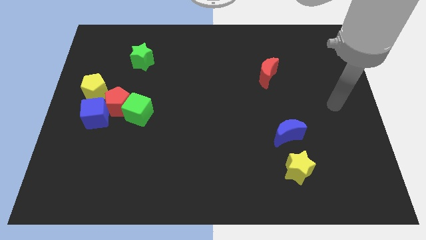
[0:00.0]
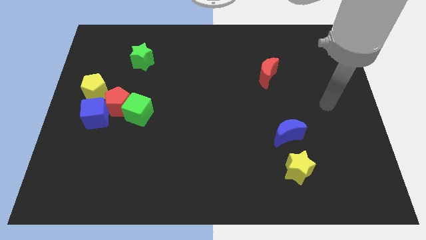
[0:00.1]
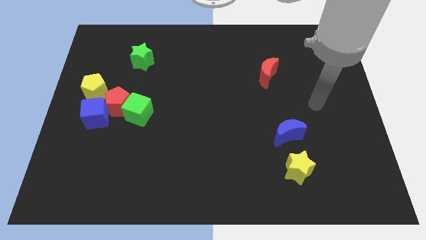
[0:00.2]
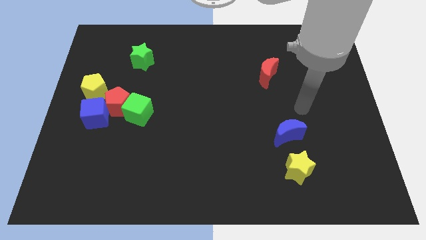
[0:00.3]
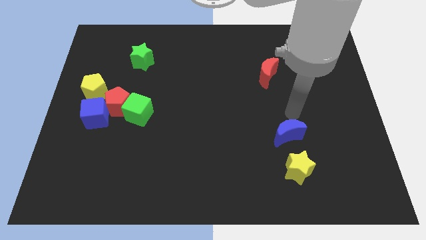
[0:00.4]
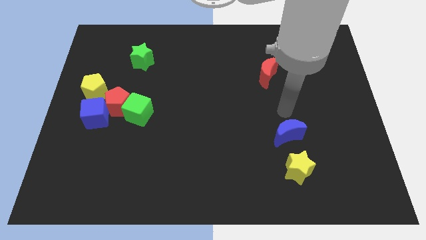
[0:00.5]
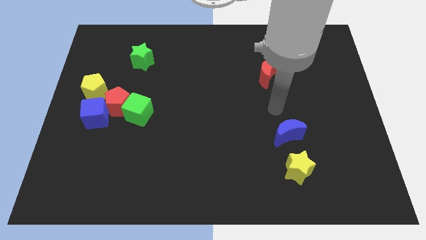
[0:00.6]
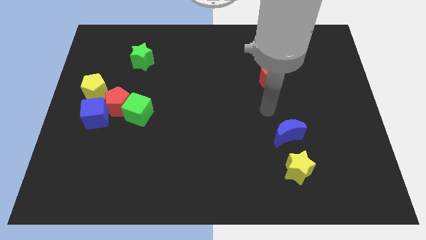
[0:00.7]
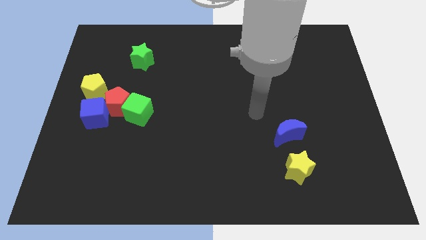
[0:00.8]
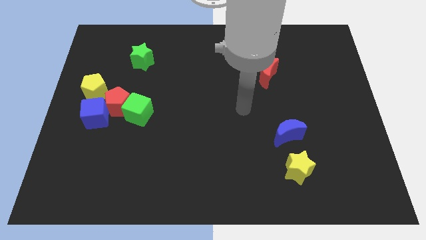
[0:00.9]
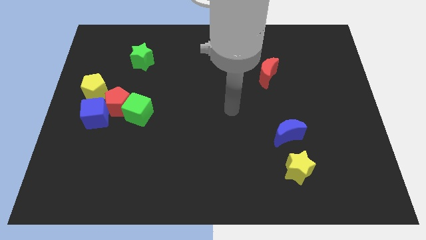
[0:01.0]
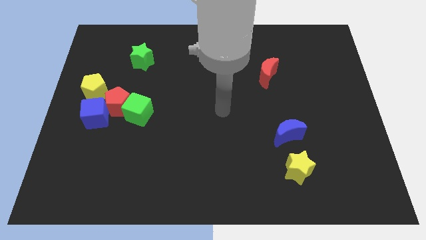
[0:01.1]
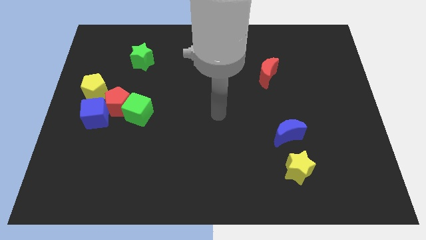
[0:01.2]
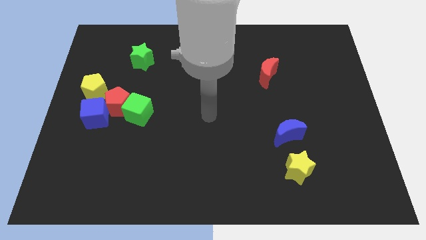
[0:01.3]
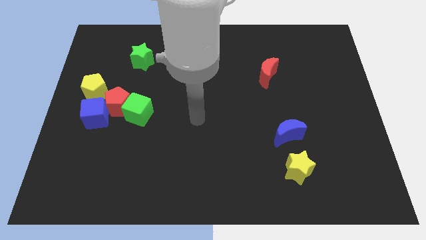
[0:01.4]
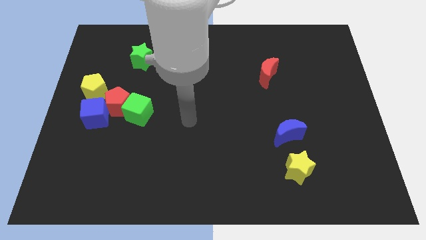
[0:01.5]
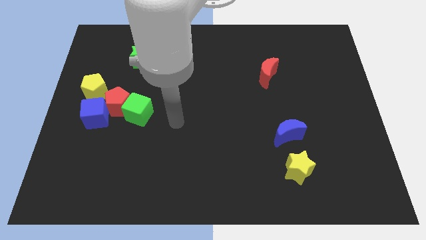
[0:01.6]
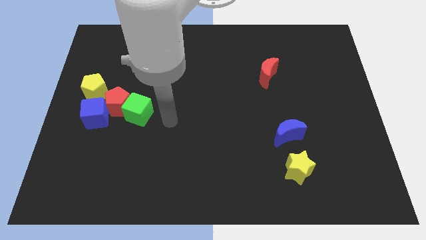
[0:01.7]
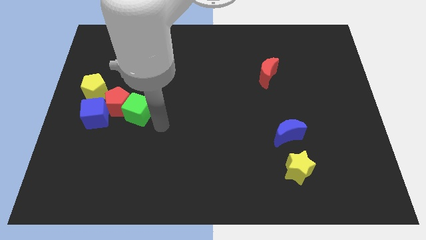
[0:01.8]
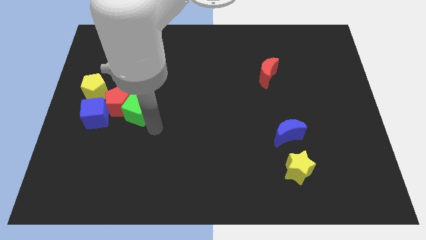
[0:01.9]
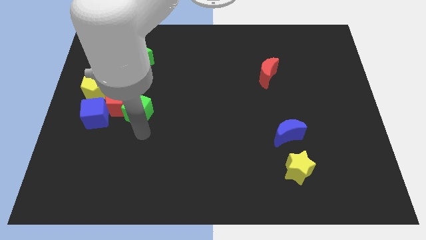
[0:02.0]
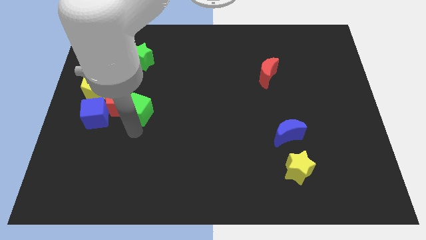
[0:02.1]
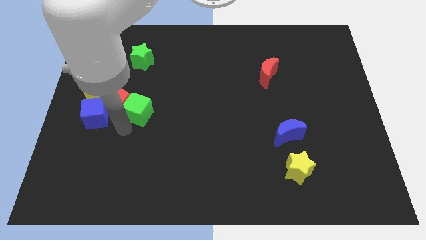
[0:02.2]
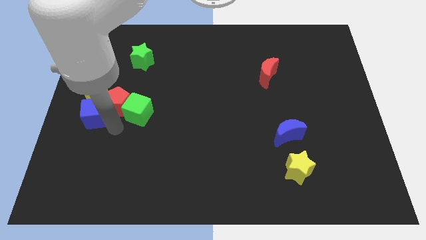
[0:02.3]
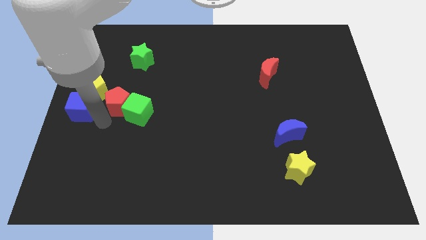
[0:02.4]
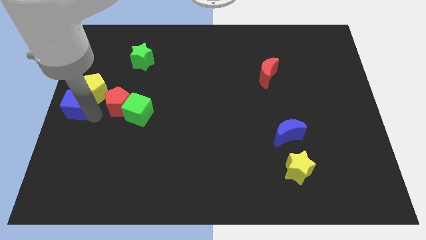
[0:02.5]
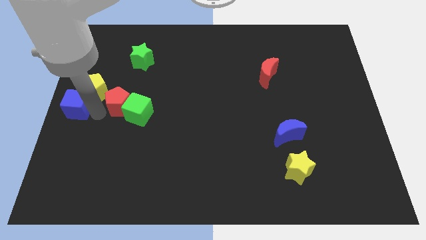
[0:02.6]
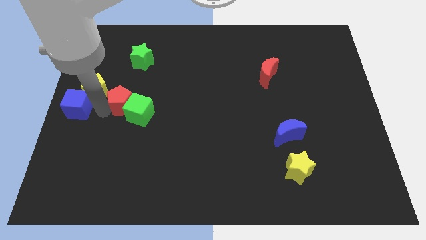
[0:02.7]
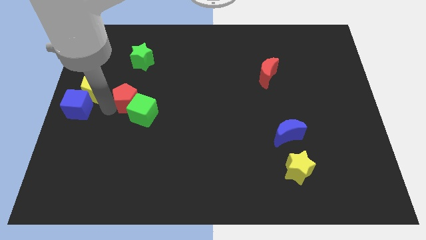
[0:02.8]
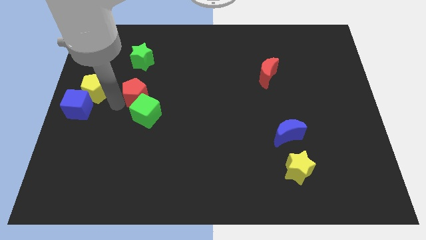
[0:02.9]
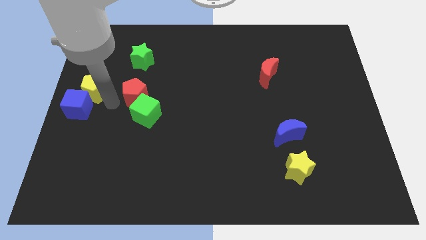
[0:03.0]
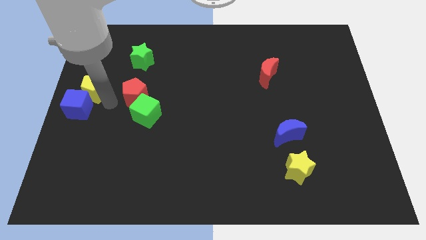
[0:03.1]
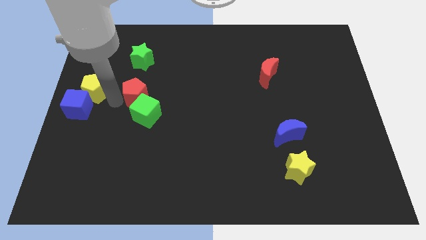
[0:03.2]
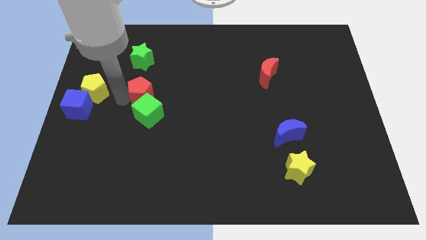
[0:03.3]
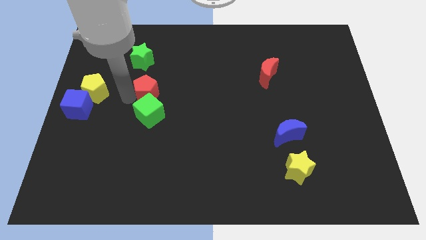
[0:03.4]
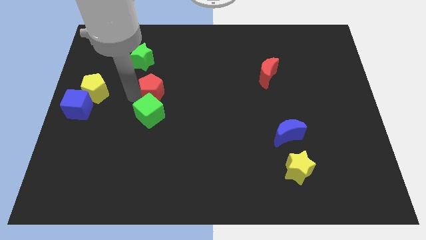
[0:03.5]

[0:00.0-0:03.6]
separate the red pentagon from the group of blocks

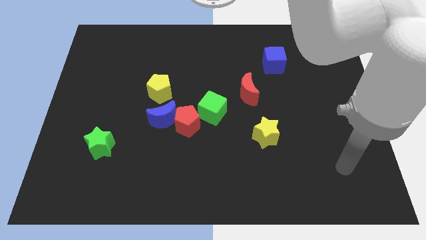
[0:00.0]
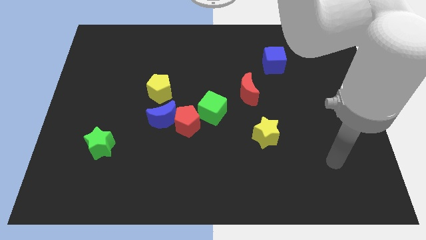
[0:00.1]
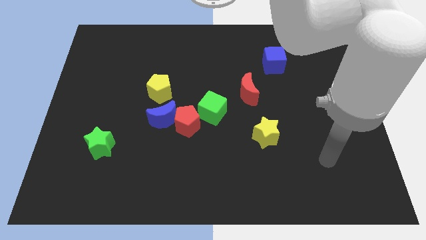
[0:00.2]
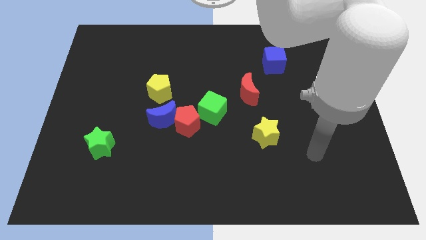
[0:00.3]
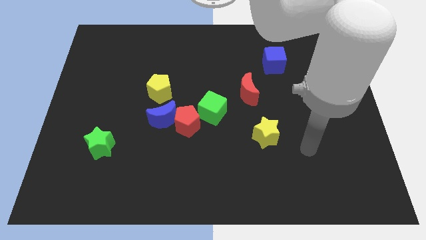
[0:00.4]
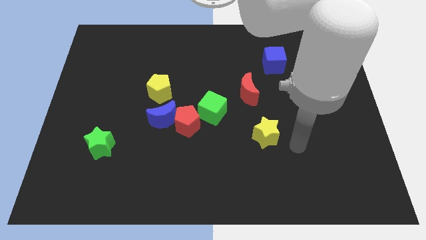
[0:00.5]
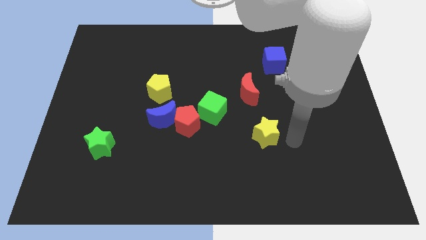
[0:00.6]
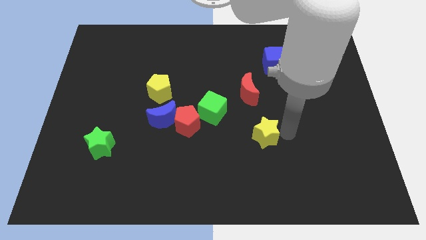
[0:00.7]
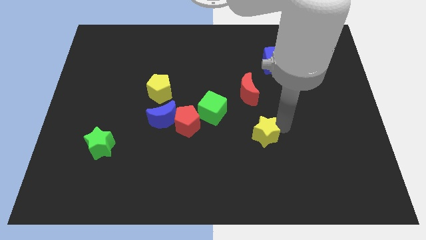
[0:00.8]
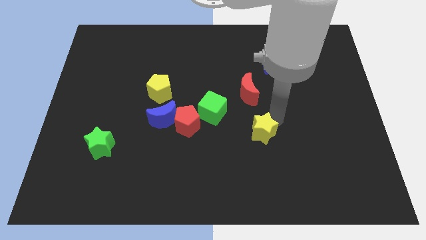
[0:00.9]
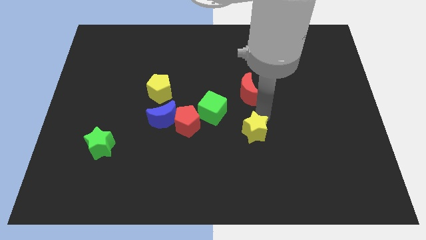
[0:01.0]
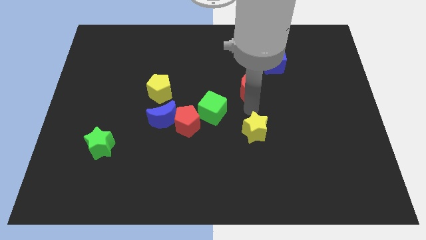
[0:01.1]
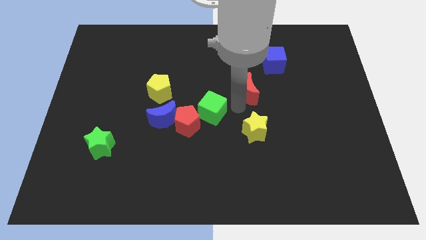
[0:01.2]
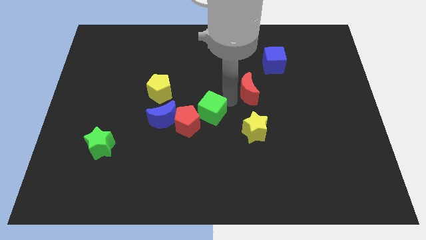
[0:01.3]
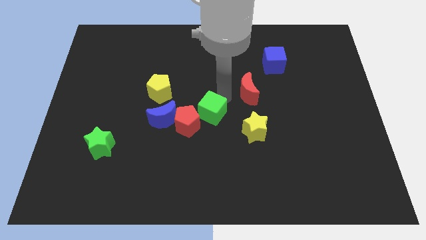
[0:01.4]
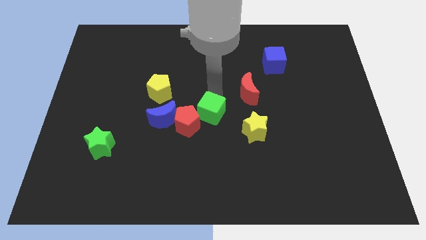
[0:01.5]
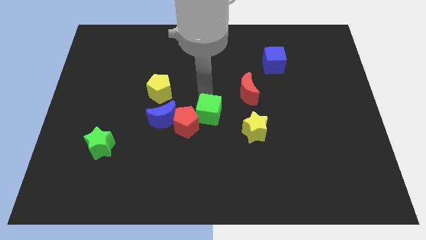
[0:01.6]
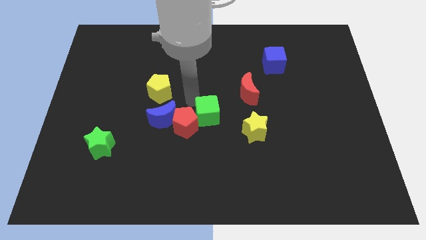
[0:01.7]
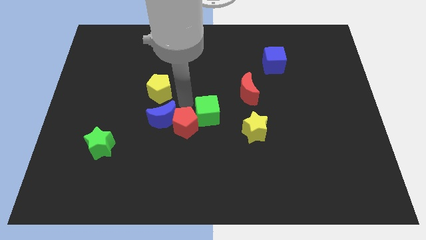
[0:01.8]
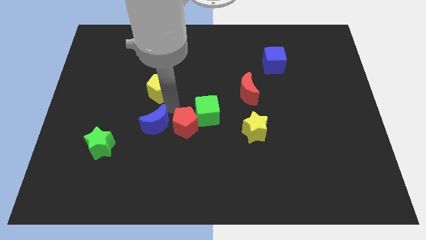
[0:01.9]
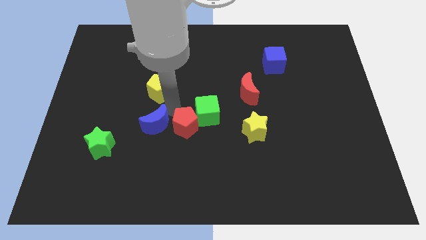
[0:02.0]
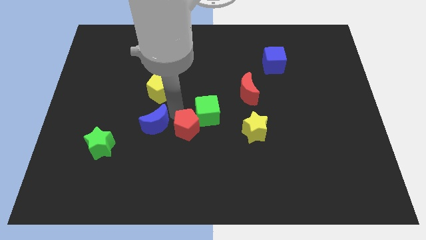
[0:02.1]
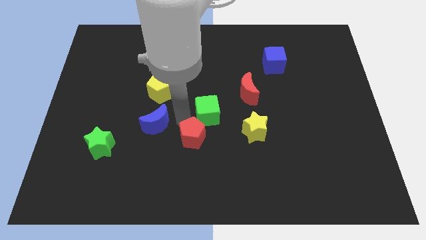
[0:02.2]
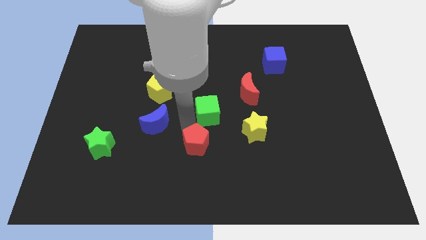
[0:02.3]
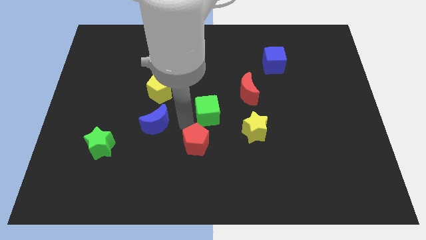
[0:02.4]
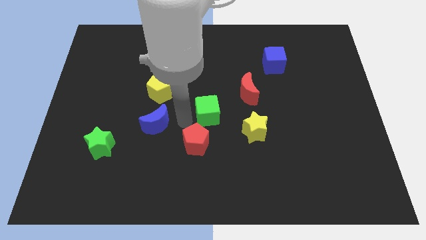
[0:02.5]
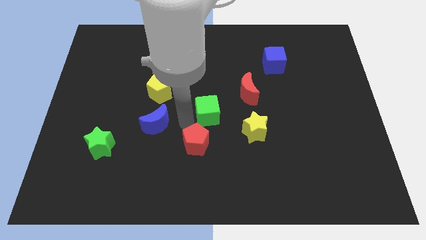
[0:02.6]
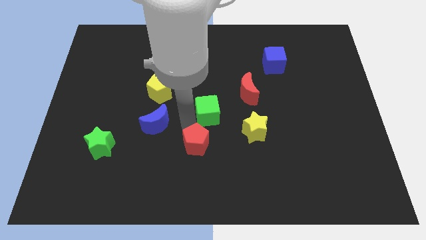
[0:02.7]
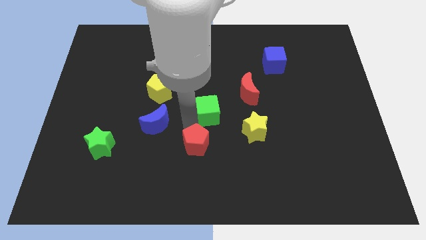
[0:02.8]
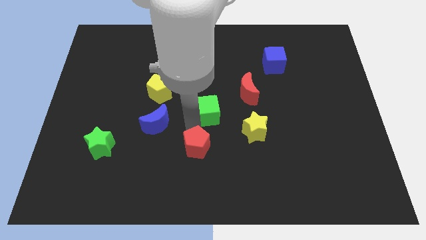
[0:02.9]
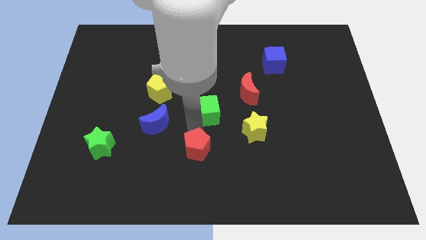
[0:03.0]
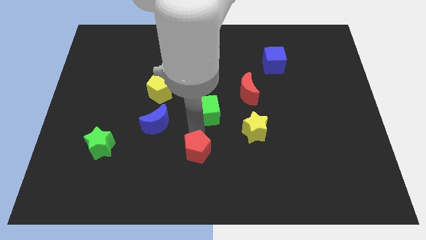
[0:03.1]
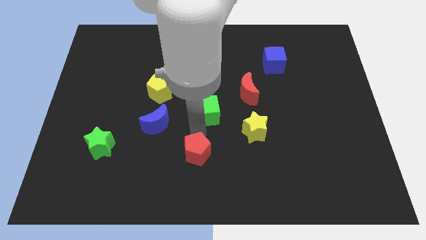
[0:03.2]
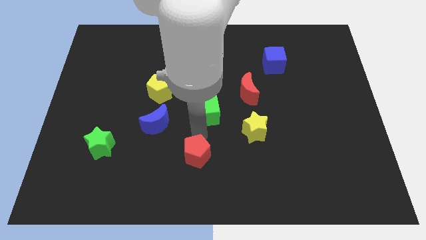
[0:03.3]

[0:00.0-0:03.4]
separate the red pentagon from the blue moon and green cube

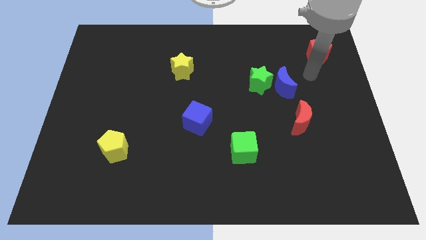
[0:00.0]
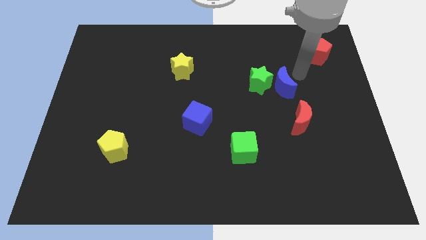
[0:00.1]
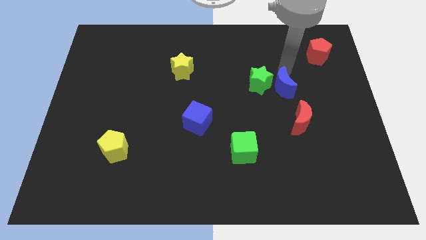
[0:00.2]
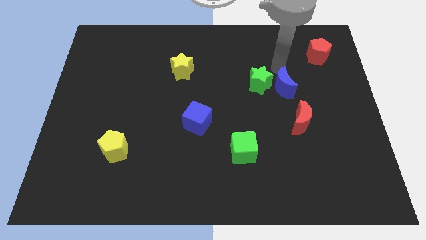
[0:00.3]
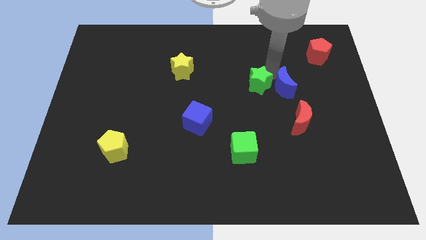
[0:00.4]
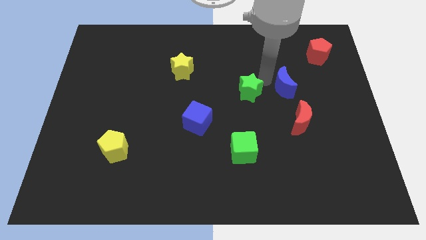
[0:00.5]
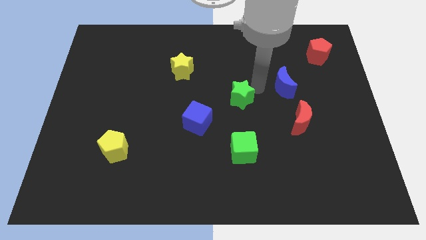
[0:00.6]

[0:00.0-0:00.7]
separate the blue moon from the green star

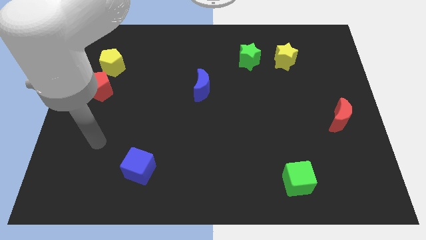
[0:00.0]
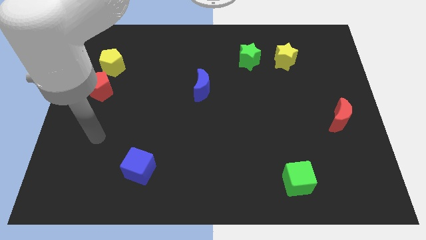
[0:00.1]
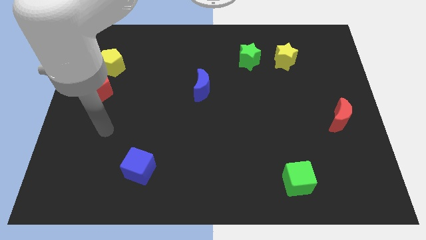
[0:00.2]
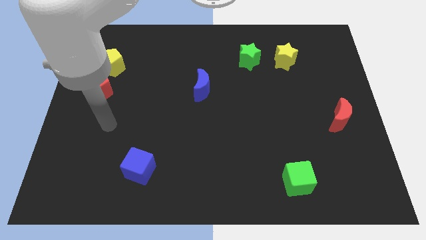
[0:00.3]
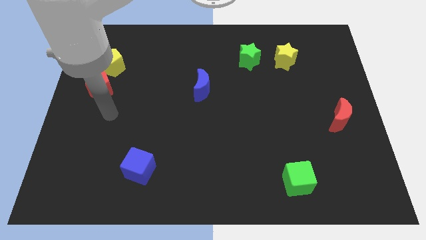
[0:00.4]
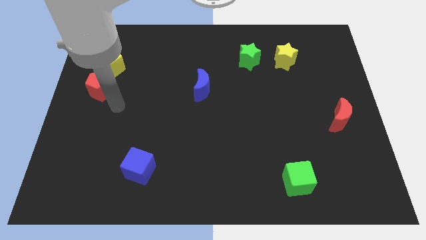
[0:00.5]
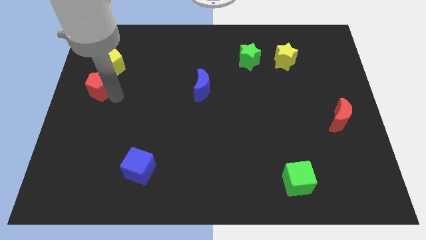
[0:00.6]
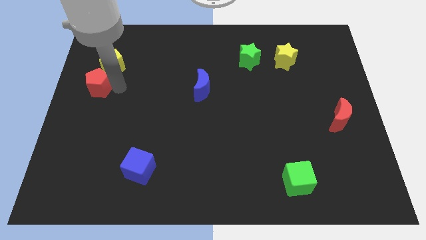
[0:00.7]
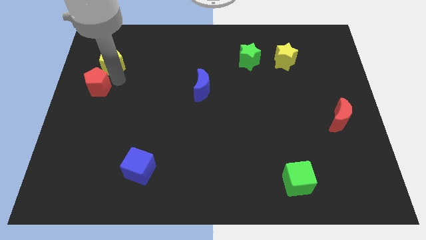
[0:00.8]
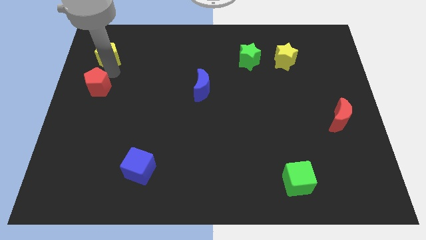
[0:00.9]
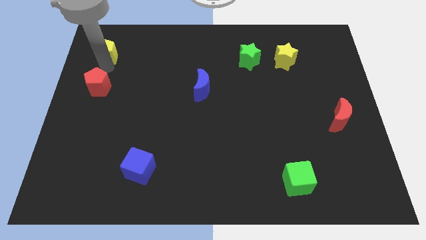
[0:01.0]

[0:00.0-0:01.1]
move the red pentagon away from the yellow pentagon

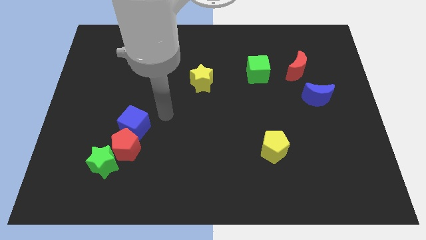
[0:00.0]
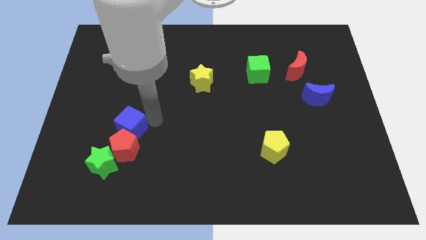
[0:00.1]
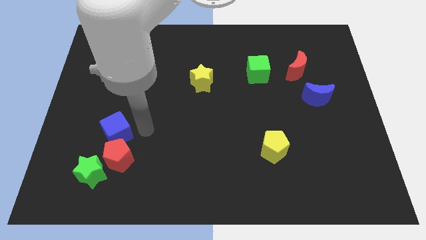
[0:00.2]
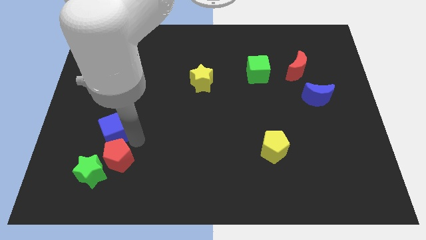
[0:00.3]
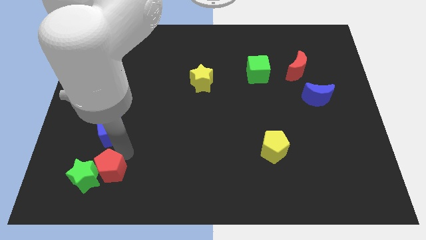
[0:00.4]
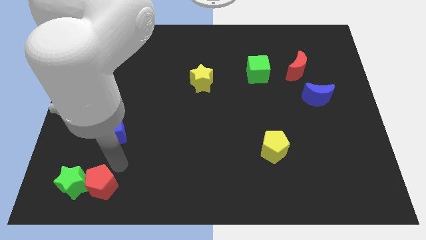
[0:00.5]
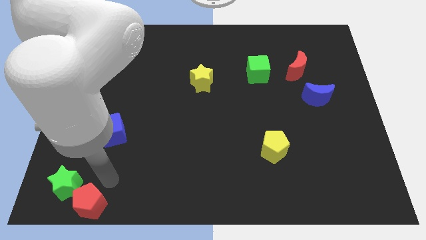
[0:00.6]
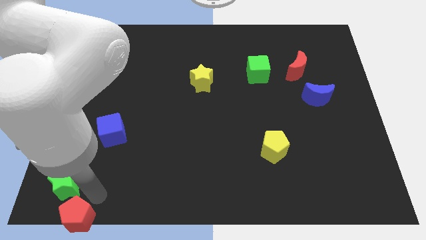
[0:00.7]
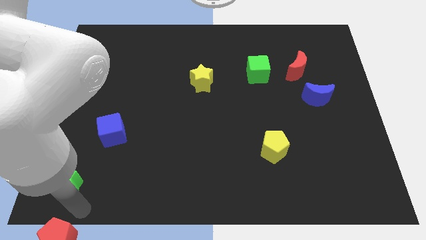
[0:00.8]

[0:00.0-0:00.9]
move the green star away from the red pentagon
